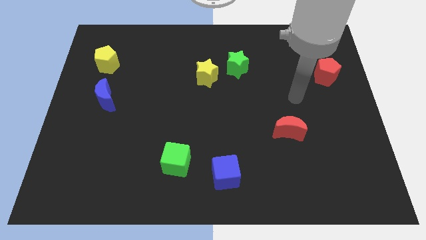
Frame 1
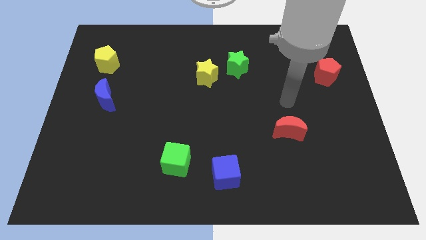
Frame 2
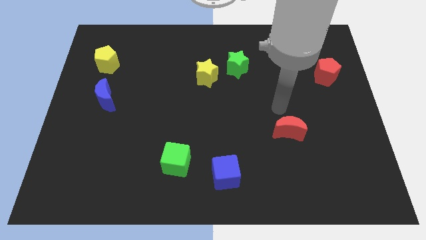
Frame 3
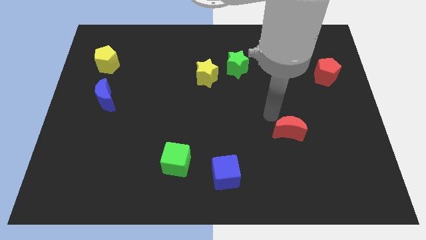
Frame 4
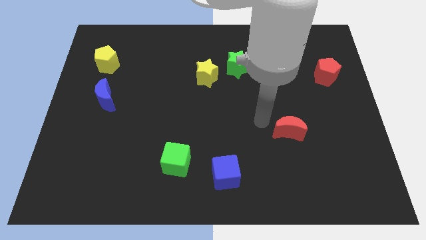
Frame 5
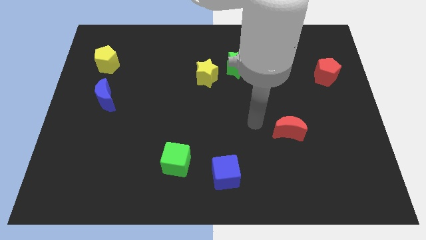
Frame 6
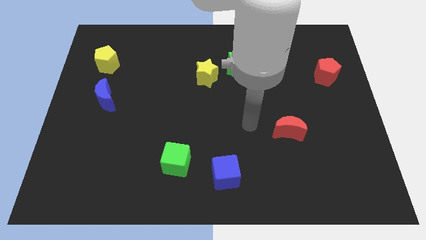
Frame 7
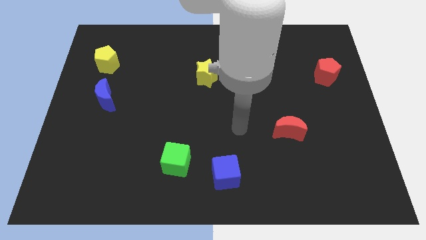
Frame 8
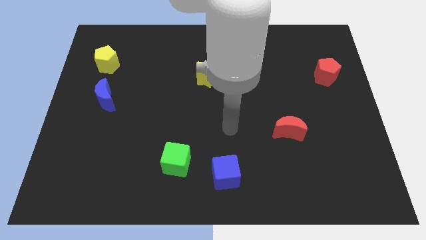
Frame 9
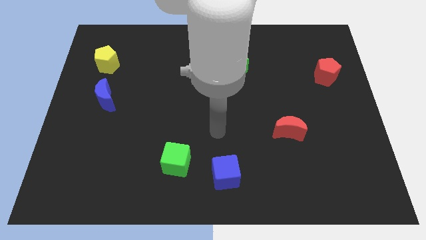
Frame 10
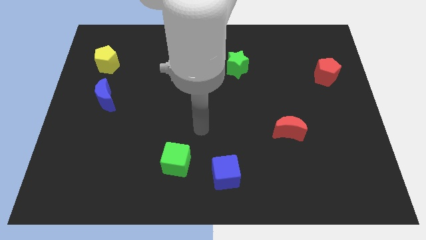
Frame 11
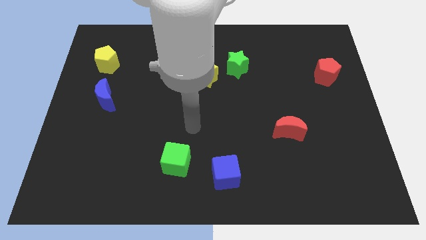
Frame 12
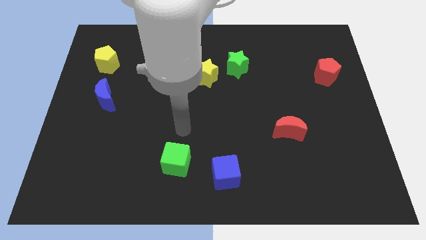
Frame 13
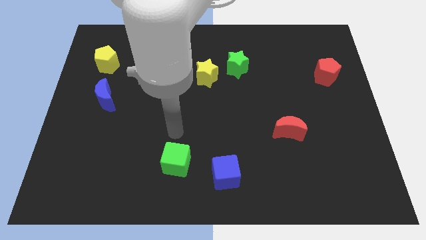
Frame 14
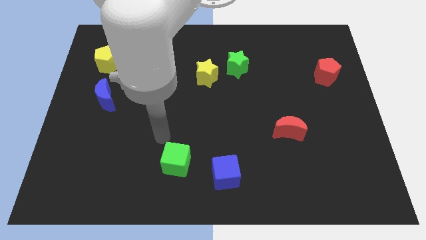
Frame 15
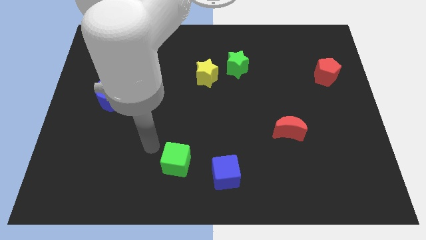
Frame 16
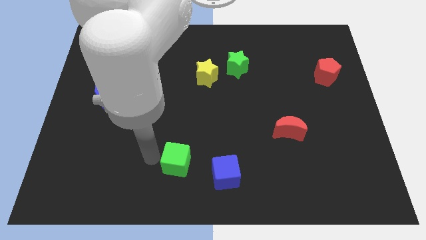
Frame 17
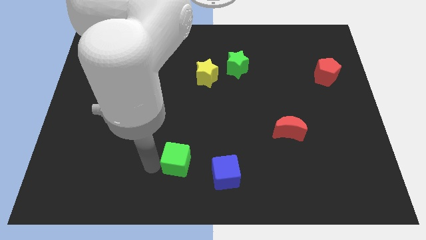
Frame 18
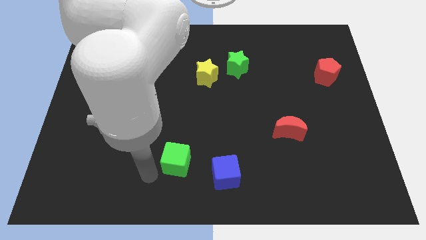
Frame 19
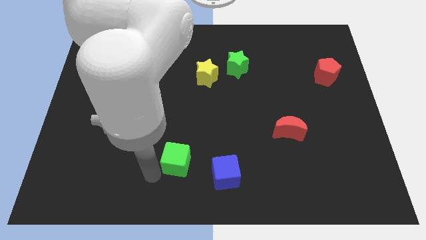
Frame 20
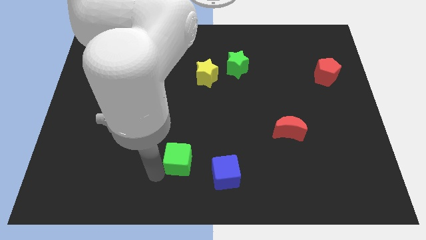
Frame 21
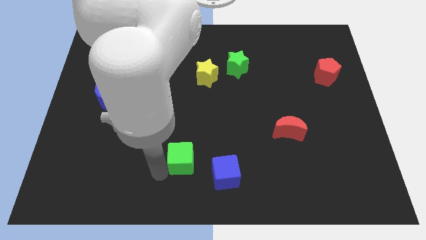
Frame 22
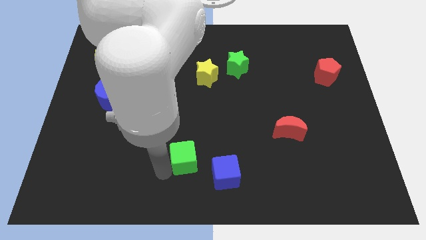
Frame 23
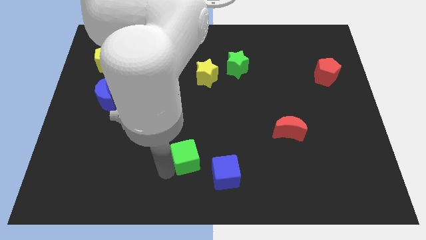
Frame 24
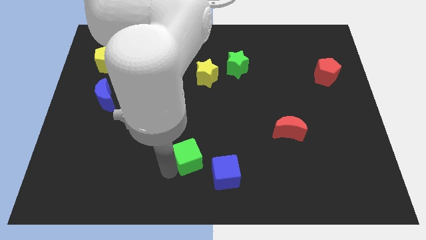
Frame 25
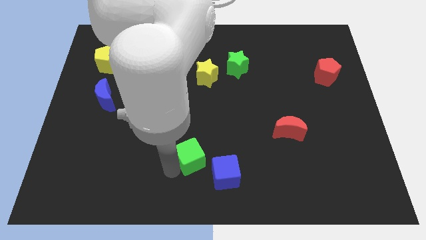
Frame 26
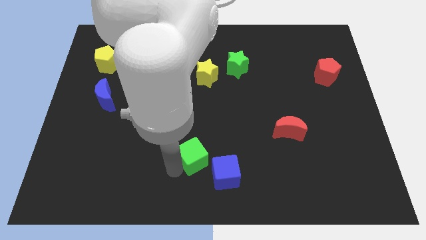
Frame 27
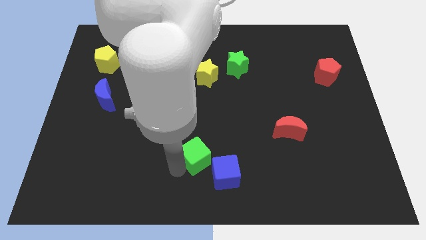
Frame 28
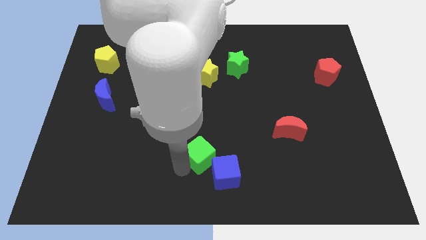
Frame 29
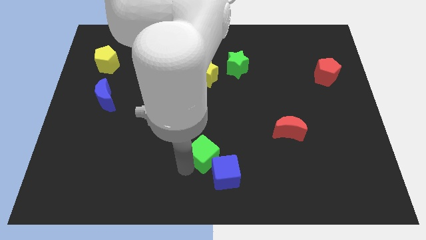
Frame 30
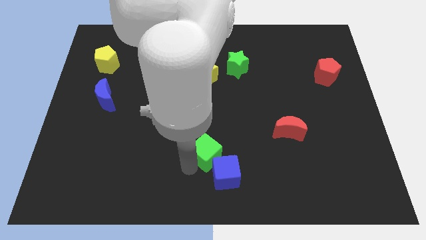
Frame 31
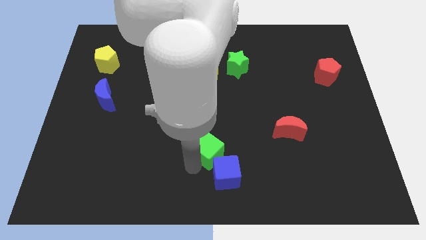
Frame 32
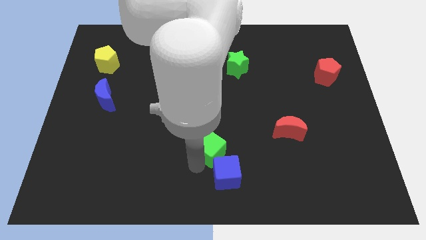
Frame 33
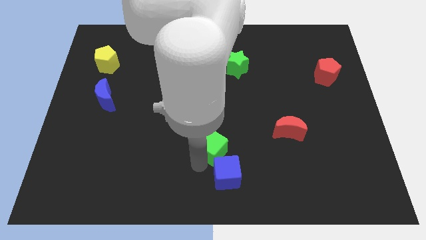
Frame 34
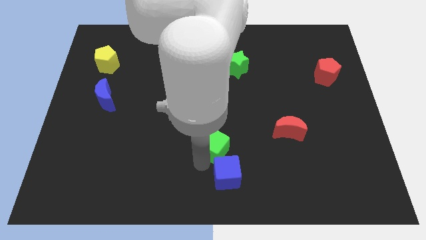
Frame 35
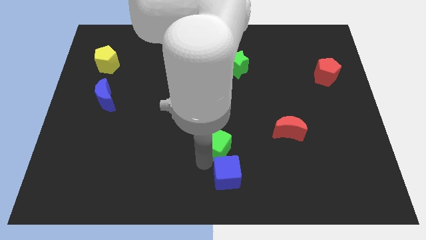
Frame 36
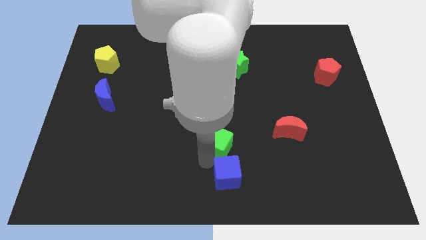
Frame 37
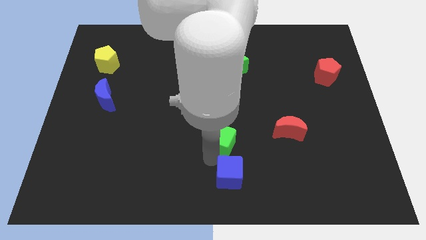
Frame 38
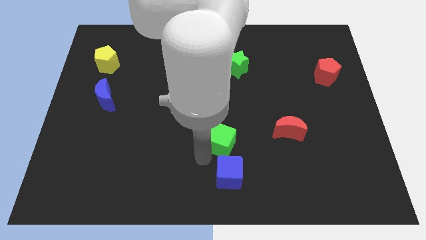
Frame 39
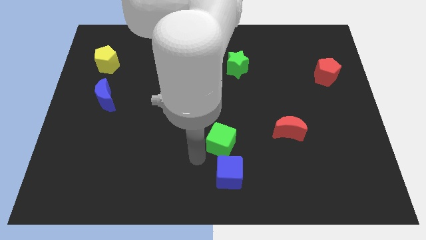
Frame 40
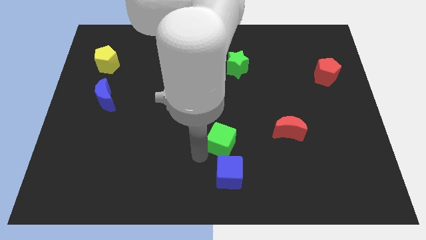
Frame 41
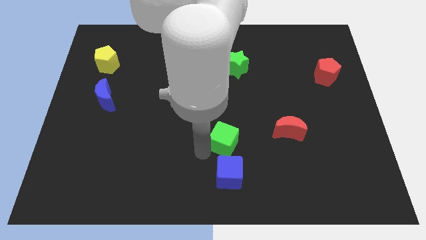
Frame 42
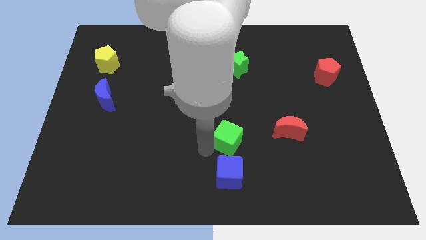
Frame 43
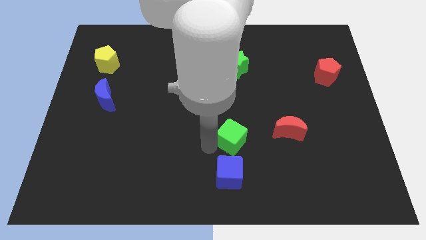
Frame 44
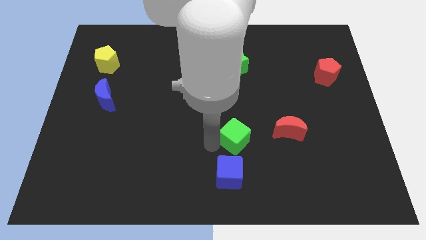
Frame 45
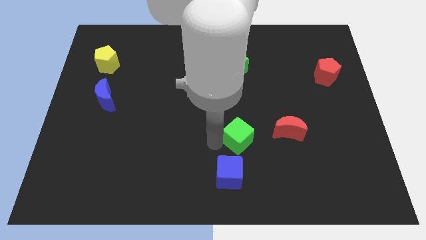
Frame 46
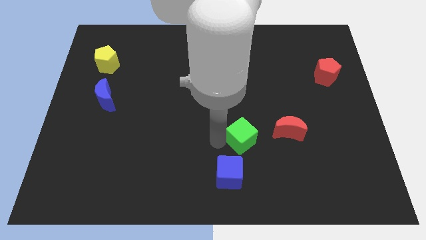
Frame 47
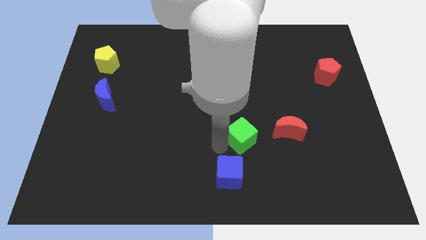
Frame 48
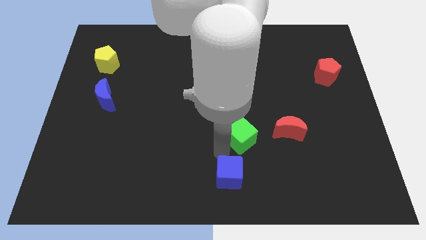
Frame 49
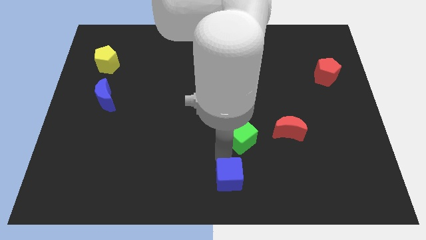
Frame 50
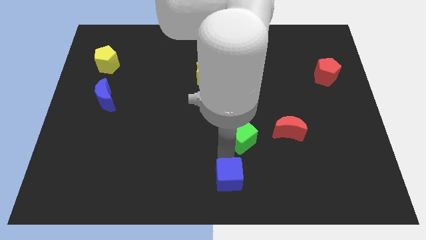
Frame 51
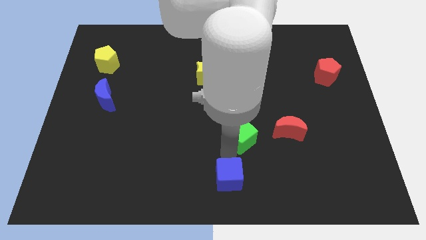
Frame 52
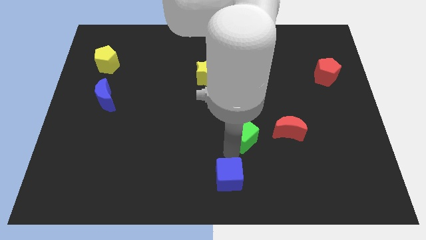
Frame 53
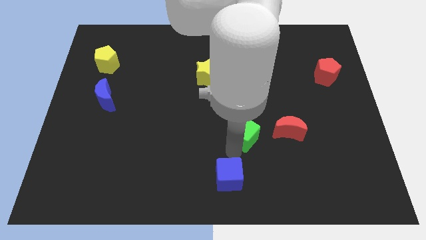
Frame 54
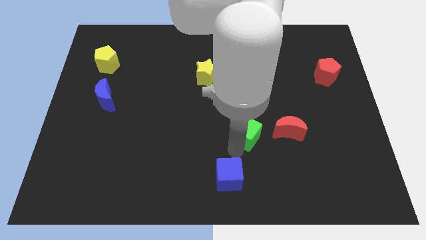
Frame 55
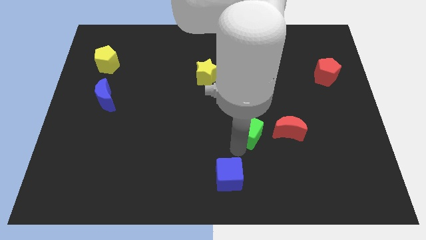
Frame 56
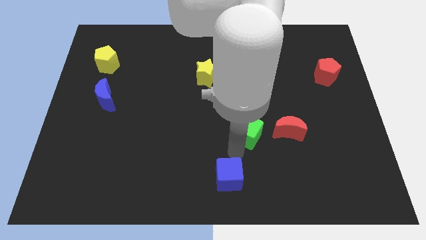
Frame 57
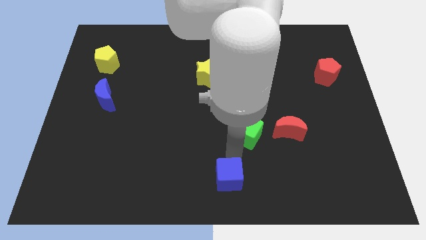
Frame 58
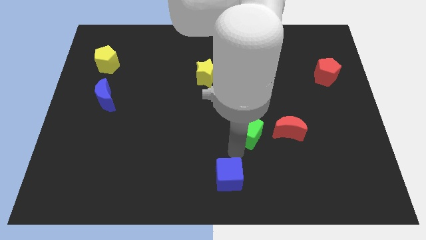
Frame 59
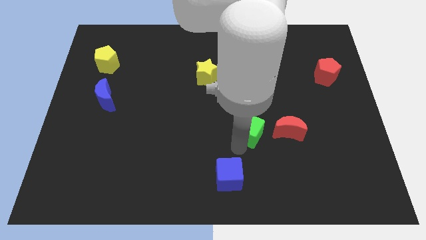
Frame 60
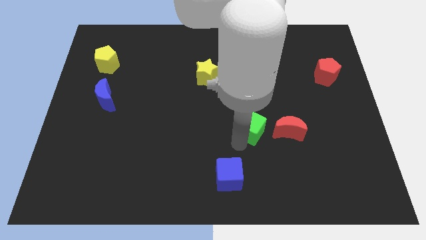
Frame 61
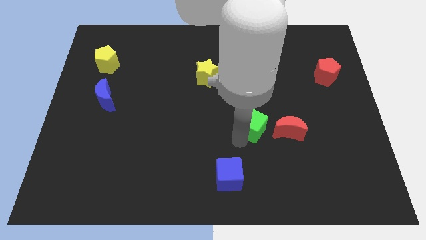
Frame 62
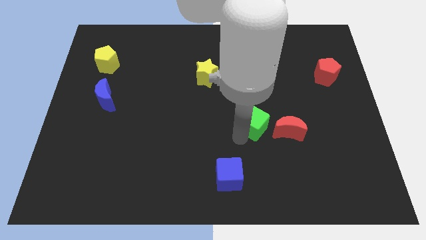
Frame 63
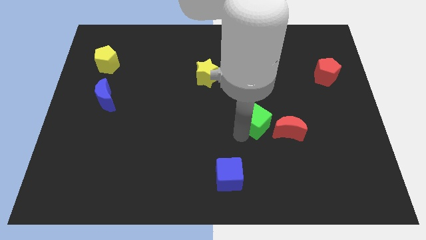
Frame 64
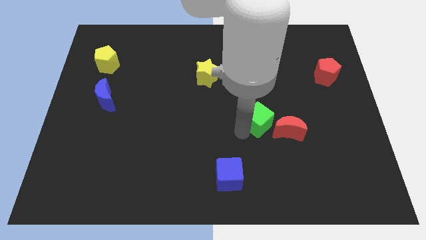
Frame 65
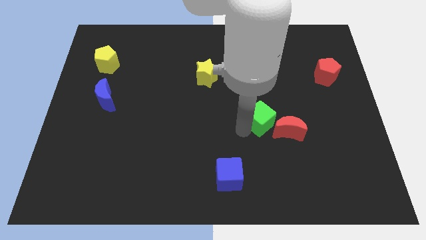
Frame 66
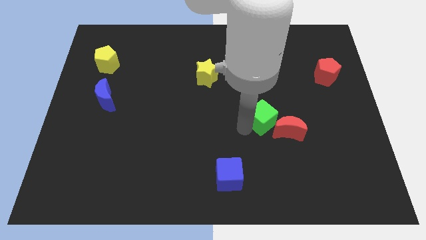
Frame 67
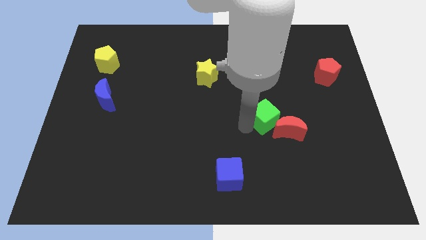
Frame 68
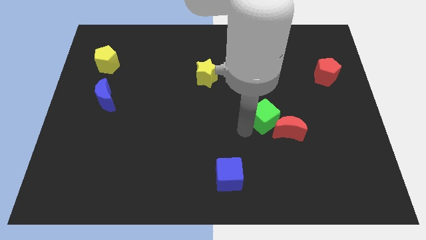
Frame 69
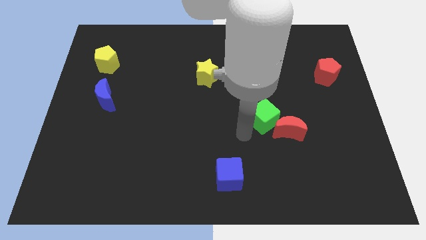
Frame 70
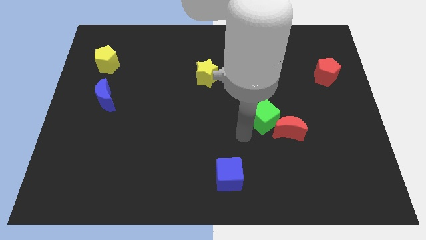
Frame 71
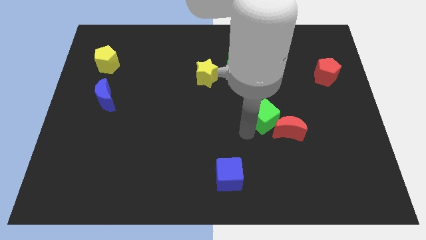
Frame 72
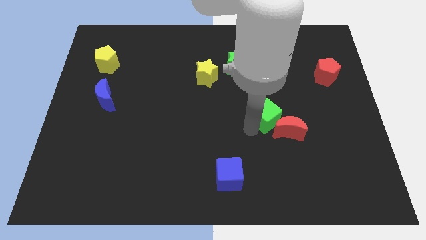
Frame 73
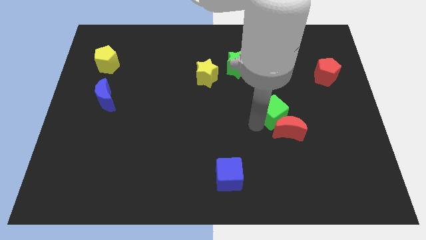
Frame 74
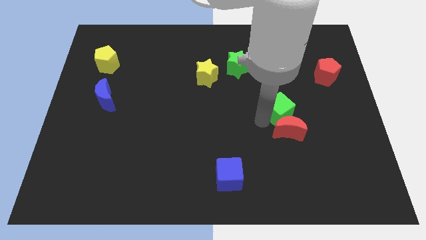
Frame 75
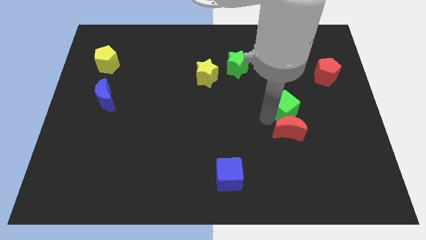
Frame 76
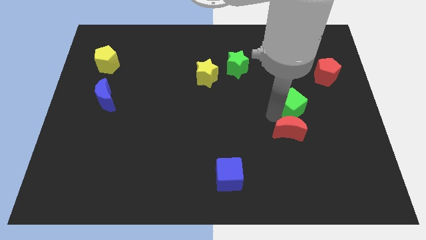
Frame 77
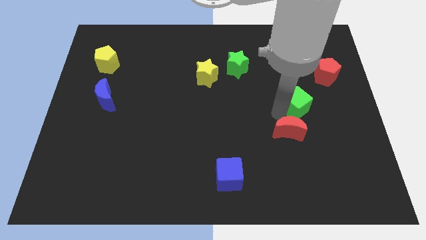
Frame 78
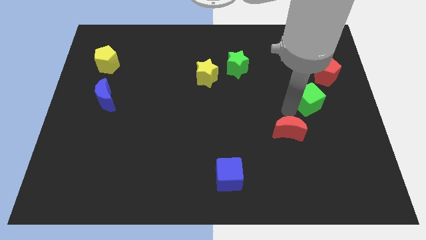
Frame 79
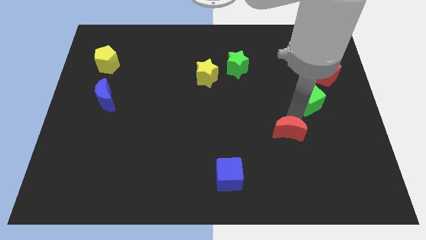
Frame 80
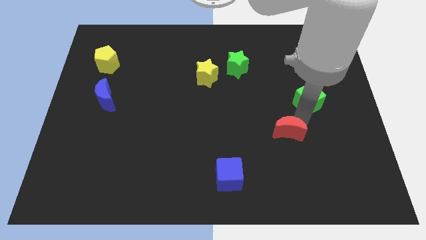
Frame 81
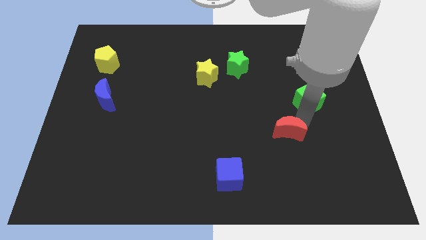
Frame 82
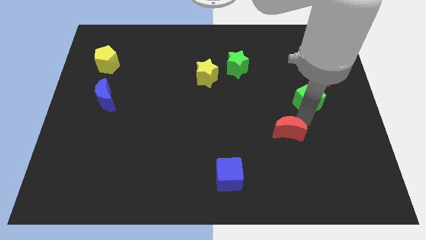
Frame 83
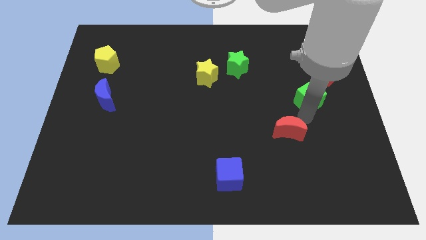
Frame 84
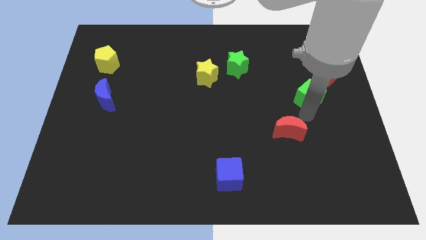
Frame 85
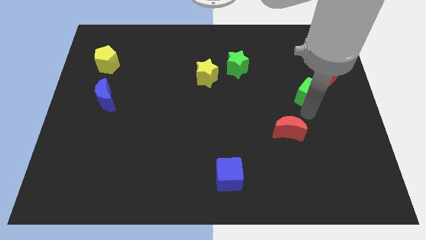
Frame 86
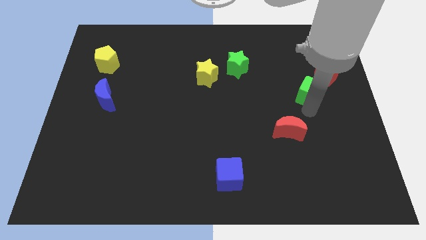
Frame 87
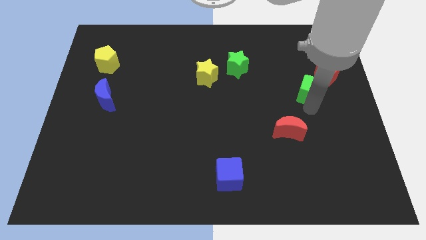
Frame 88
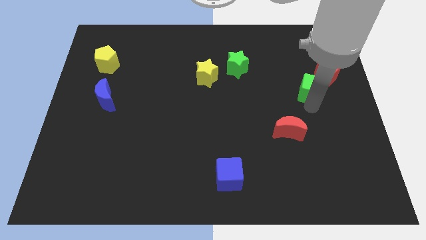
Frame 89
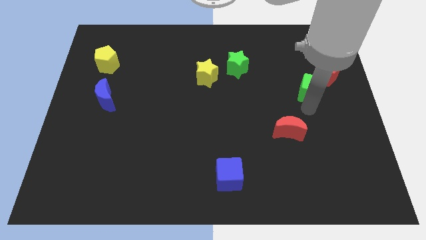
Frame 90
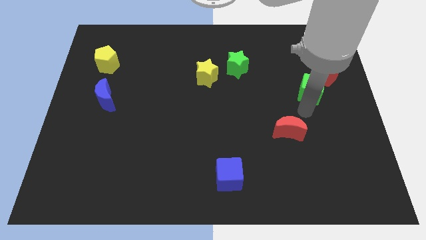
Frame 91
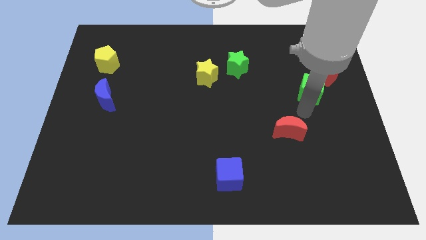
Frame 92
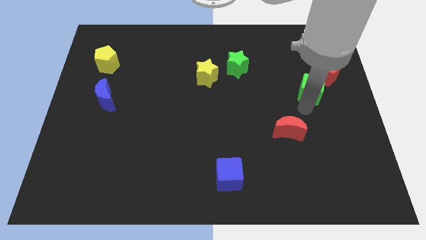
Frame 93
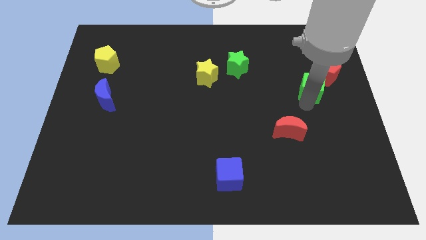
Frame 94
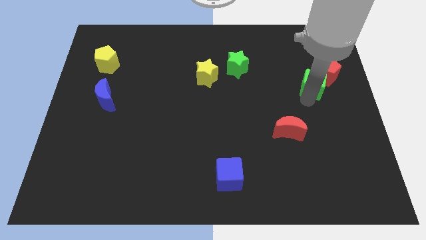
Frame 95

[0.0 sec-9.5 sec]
put the green cube to the red pentagon
